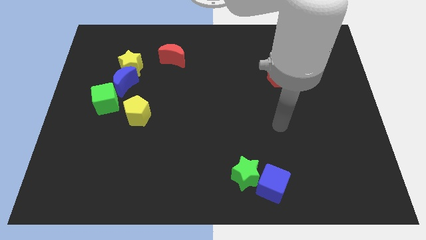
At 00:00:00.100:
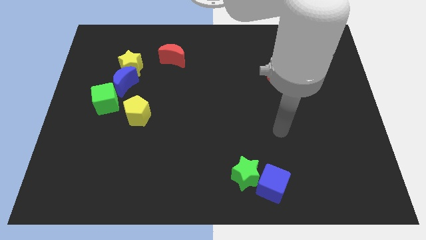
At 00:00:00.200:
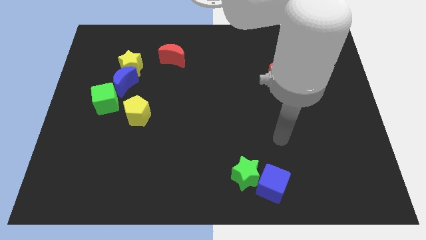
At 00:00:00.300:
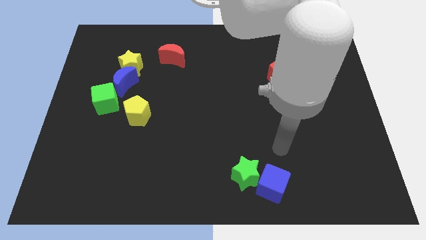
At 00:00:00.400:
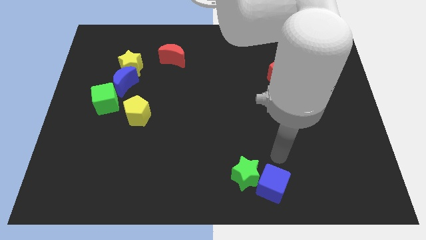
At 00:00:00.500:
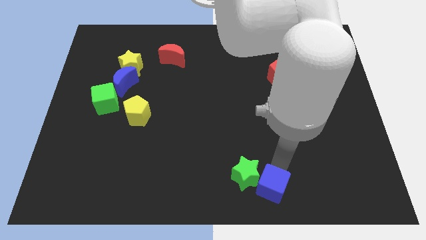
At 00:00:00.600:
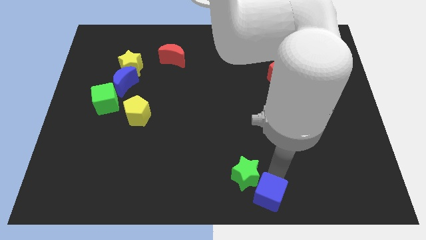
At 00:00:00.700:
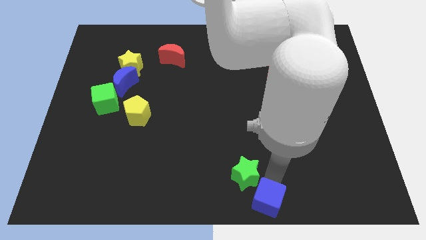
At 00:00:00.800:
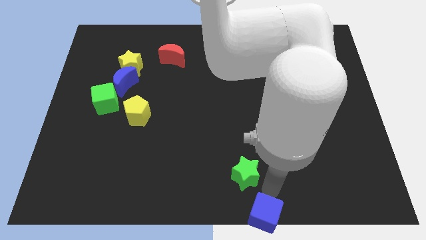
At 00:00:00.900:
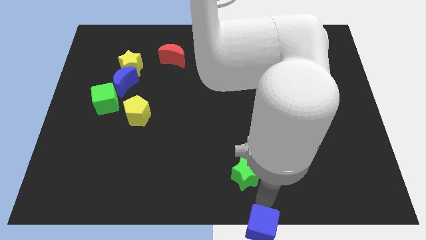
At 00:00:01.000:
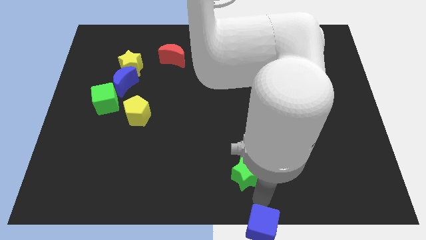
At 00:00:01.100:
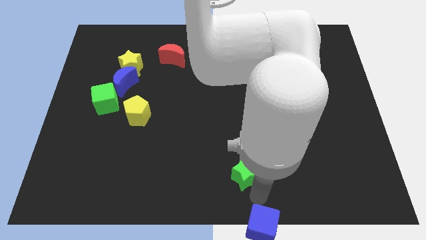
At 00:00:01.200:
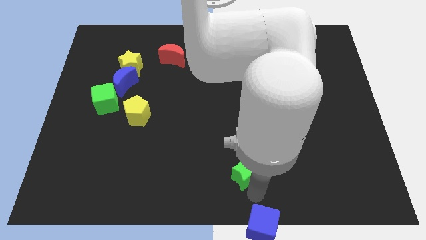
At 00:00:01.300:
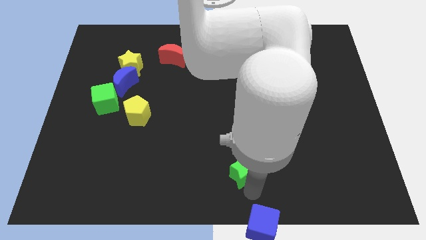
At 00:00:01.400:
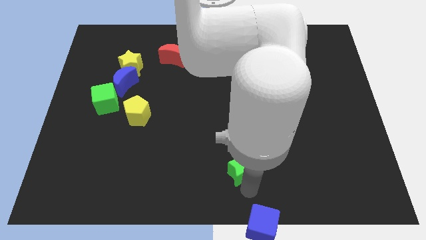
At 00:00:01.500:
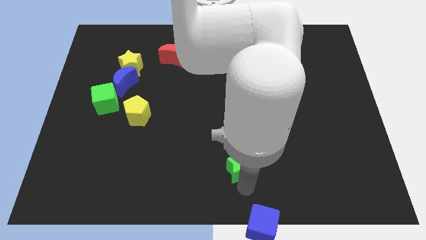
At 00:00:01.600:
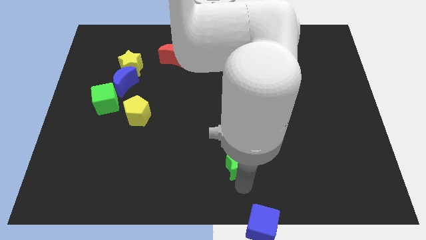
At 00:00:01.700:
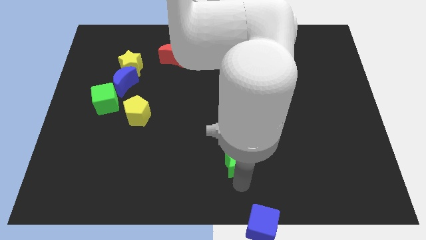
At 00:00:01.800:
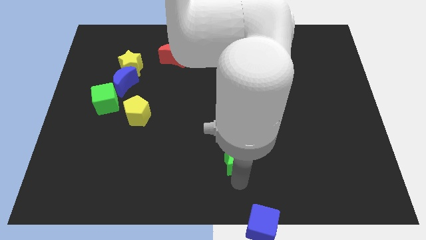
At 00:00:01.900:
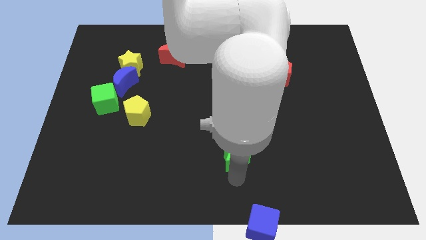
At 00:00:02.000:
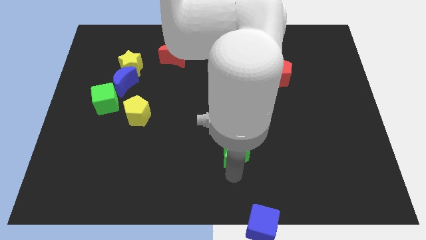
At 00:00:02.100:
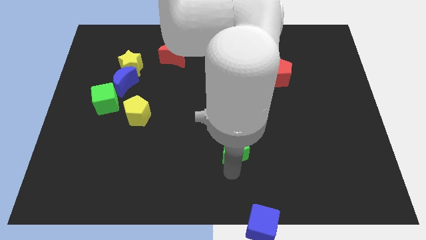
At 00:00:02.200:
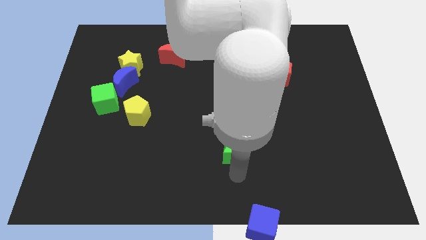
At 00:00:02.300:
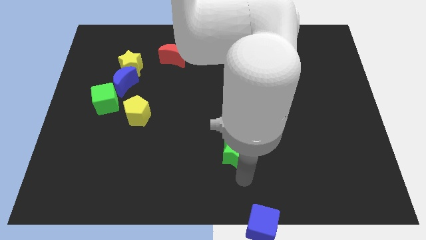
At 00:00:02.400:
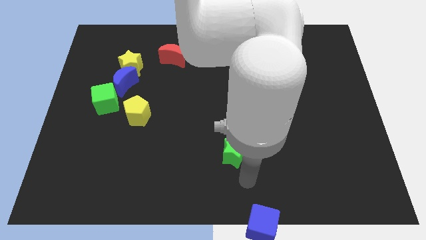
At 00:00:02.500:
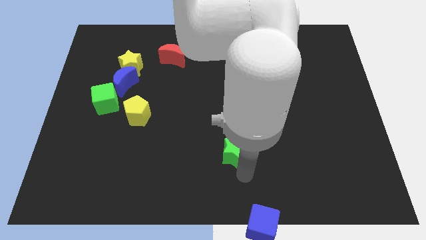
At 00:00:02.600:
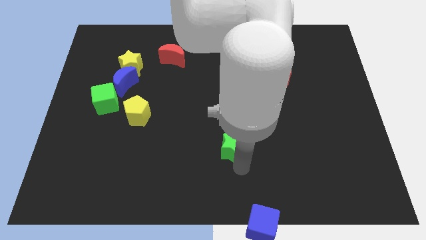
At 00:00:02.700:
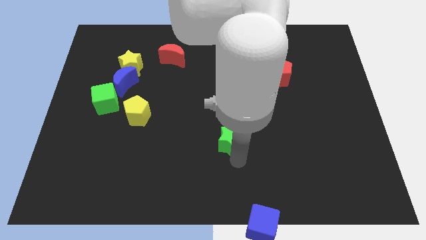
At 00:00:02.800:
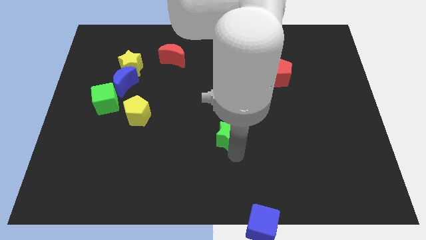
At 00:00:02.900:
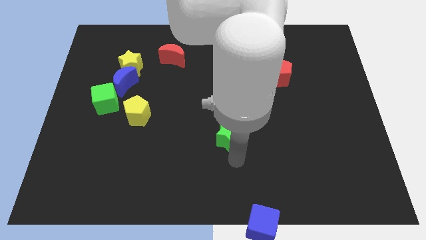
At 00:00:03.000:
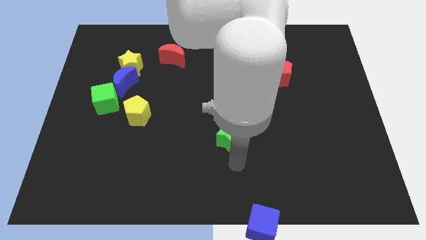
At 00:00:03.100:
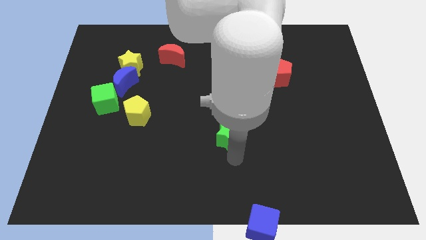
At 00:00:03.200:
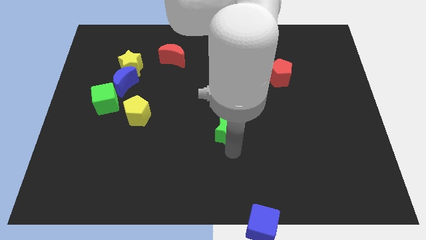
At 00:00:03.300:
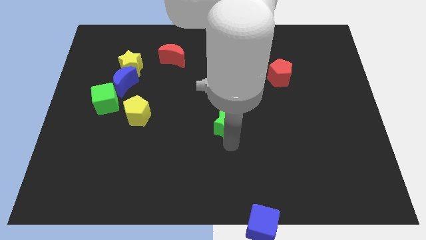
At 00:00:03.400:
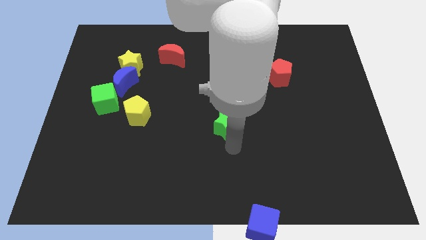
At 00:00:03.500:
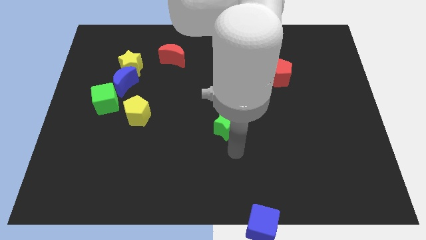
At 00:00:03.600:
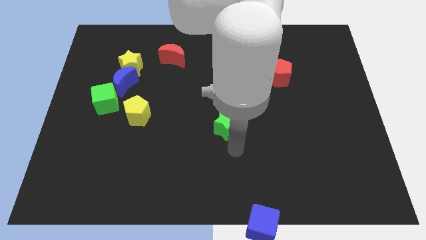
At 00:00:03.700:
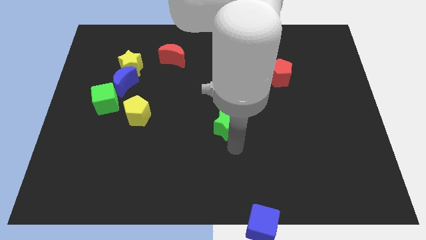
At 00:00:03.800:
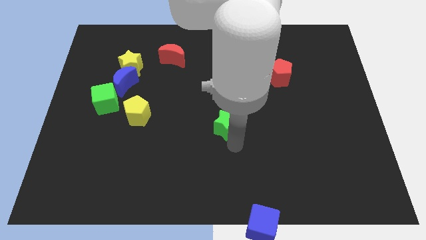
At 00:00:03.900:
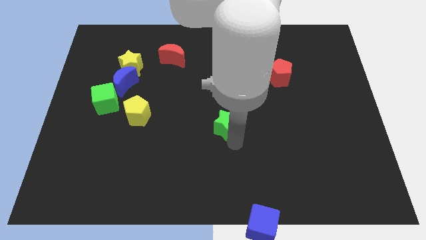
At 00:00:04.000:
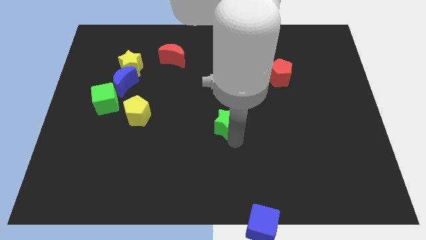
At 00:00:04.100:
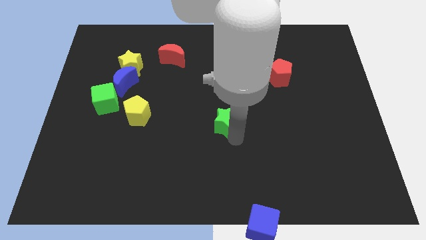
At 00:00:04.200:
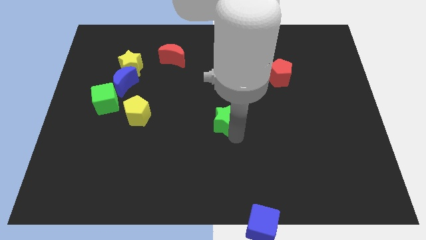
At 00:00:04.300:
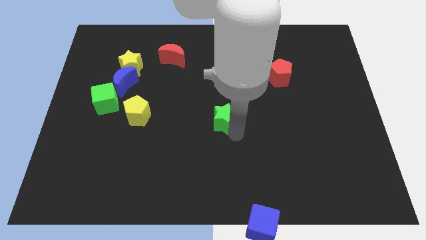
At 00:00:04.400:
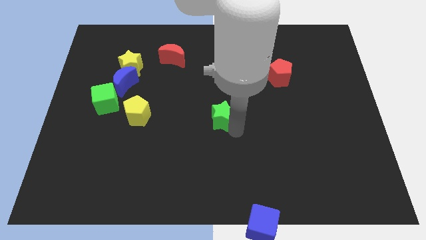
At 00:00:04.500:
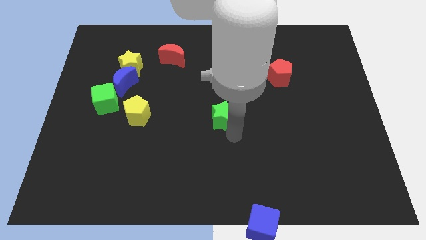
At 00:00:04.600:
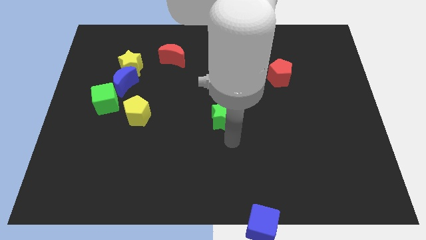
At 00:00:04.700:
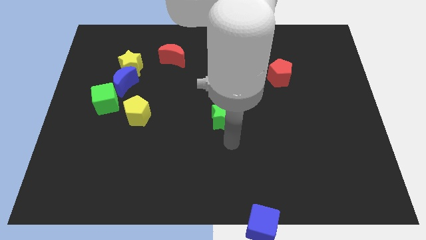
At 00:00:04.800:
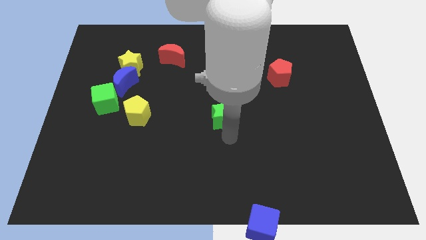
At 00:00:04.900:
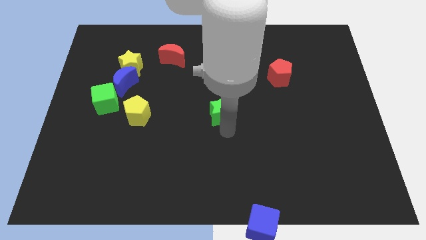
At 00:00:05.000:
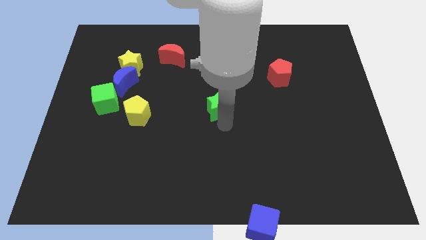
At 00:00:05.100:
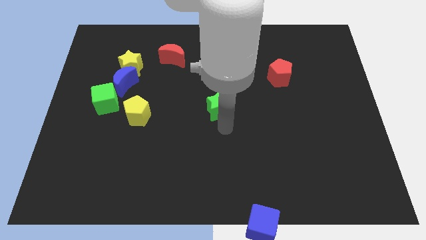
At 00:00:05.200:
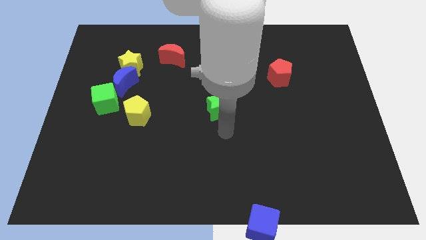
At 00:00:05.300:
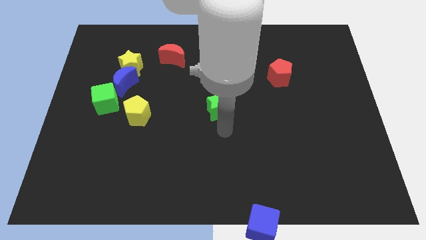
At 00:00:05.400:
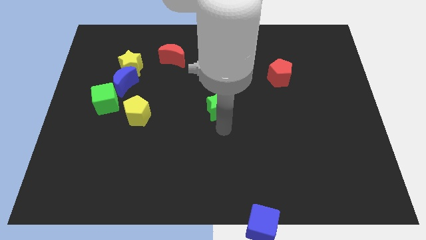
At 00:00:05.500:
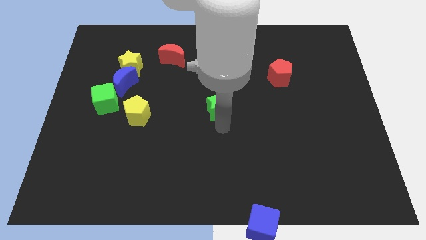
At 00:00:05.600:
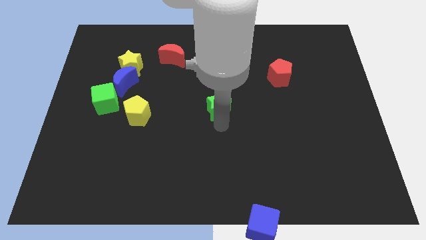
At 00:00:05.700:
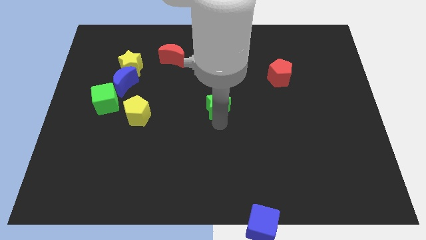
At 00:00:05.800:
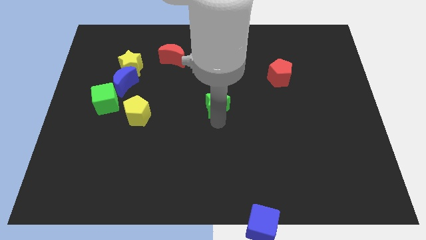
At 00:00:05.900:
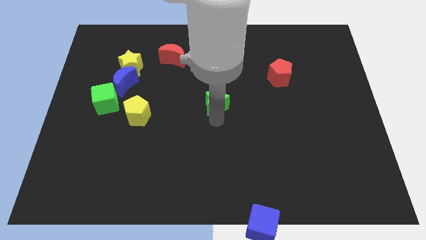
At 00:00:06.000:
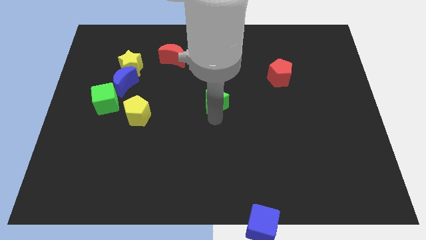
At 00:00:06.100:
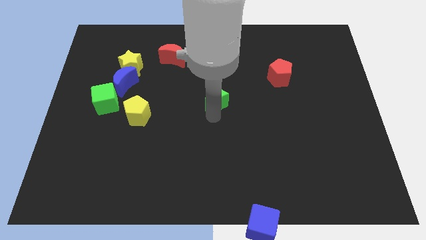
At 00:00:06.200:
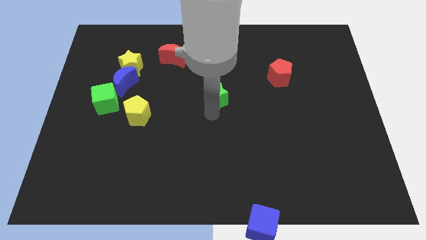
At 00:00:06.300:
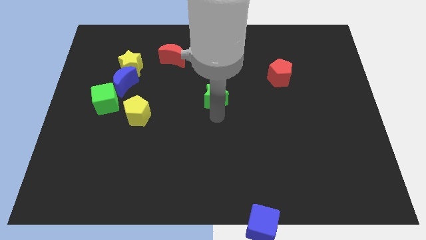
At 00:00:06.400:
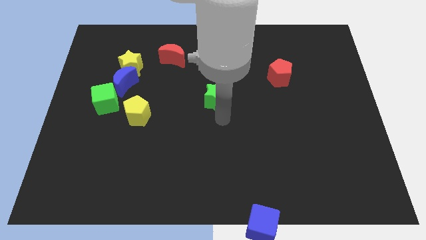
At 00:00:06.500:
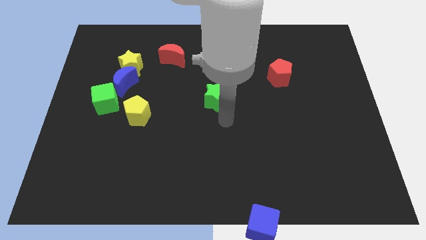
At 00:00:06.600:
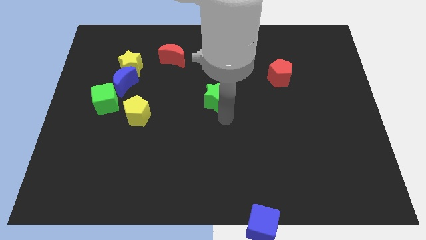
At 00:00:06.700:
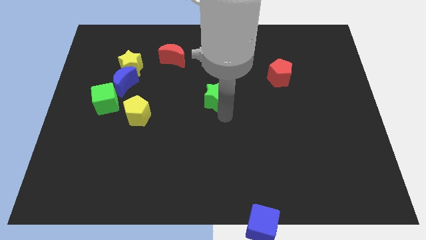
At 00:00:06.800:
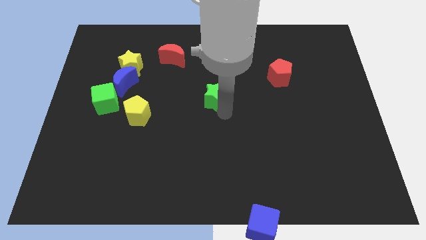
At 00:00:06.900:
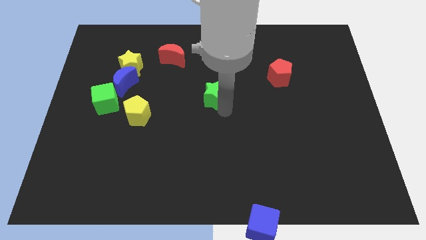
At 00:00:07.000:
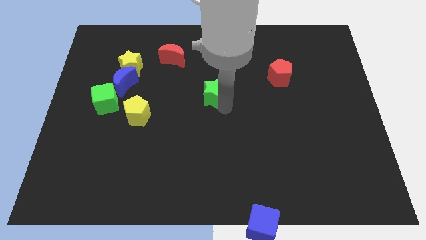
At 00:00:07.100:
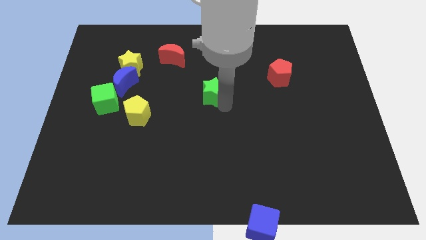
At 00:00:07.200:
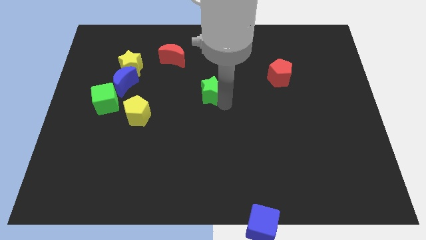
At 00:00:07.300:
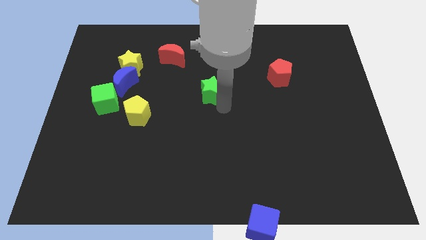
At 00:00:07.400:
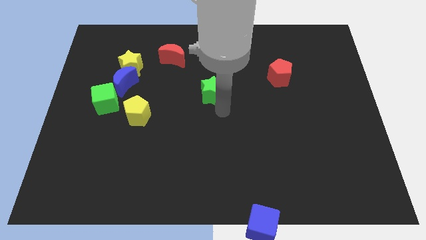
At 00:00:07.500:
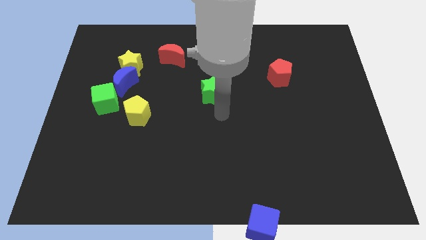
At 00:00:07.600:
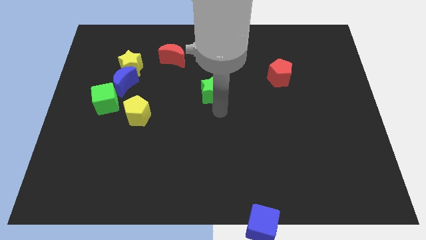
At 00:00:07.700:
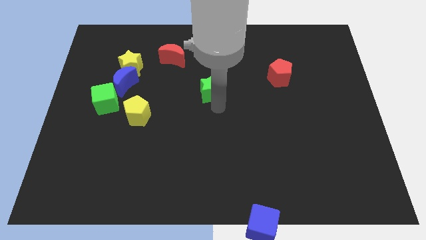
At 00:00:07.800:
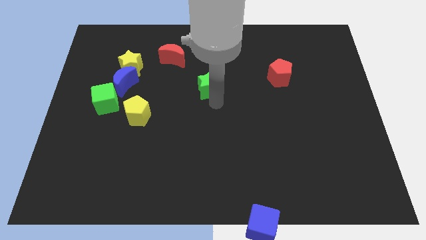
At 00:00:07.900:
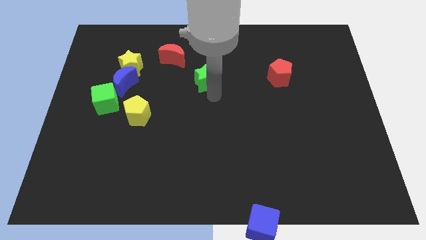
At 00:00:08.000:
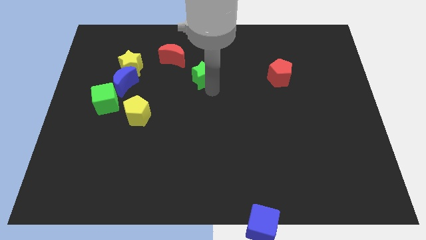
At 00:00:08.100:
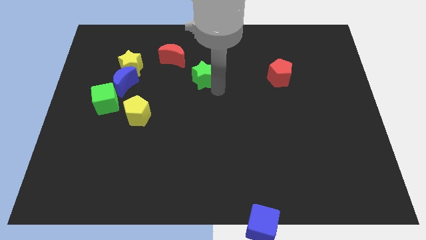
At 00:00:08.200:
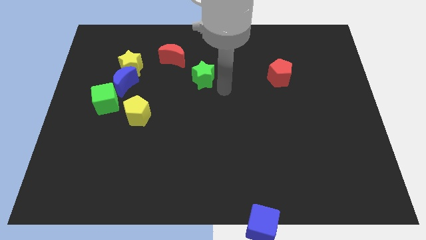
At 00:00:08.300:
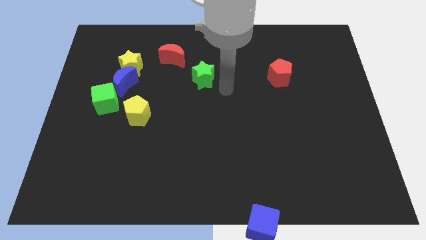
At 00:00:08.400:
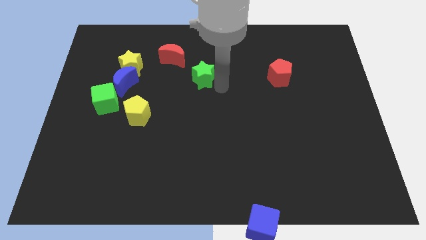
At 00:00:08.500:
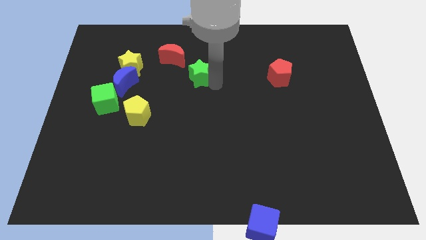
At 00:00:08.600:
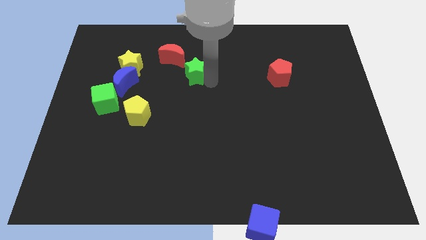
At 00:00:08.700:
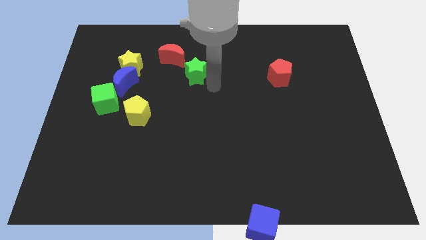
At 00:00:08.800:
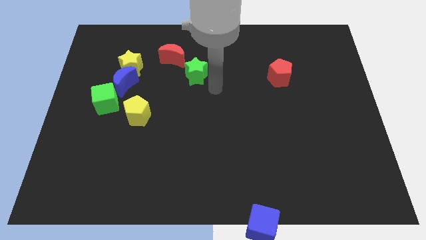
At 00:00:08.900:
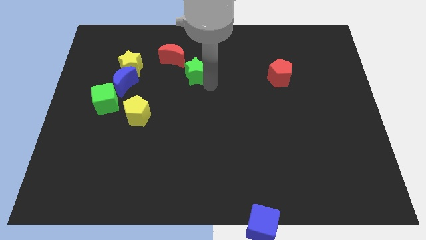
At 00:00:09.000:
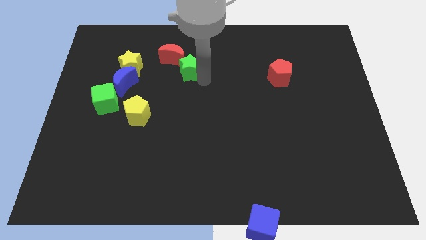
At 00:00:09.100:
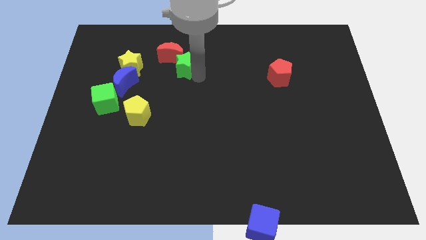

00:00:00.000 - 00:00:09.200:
move the green star to the red moon
